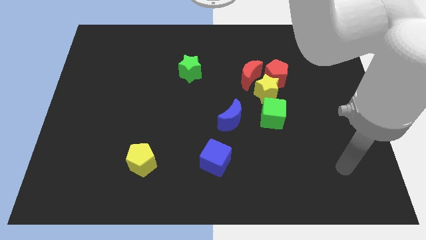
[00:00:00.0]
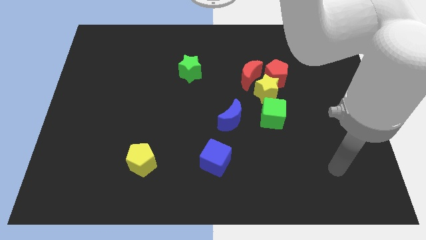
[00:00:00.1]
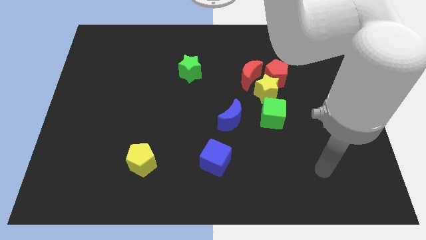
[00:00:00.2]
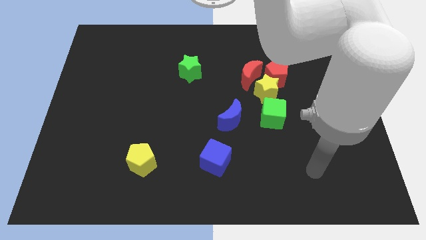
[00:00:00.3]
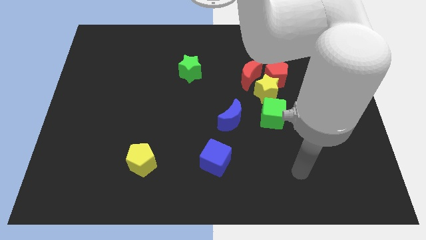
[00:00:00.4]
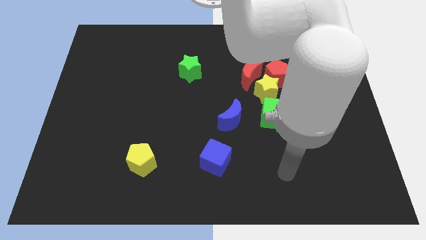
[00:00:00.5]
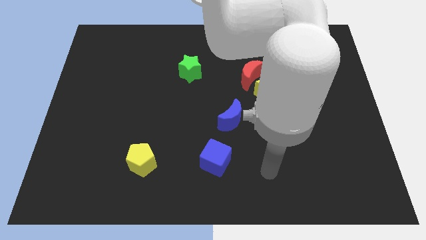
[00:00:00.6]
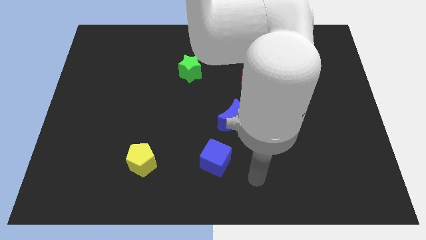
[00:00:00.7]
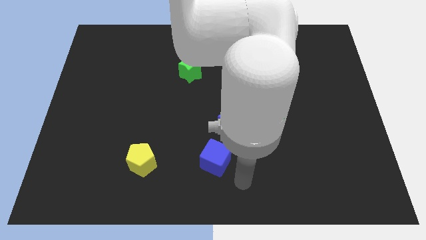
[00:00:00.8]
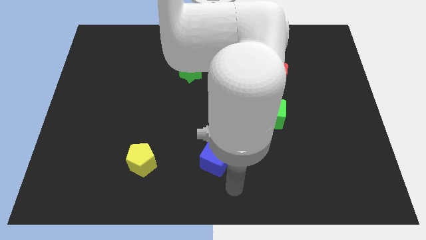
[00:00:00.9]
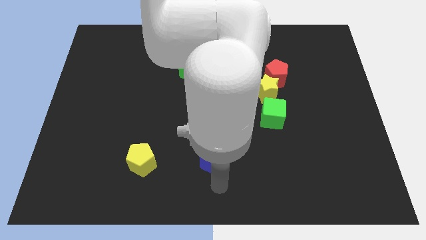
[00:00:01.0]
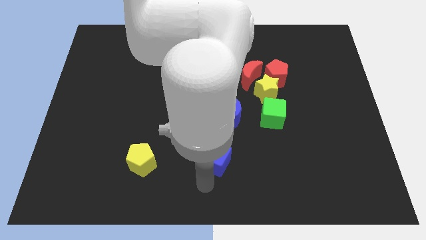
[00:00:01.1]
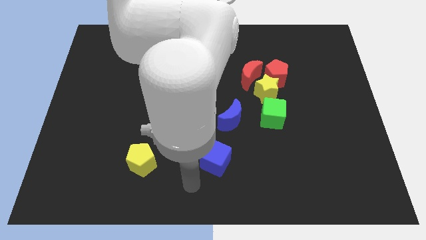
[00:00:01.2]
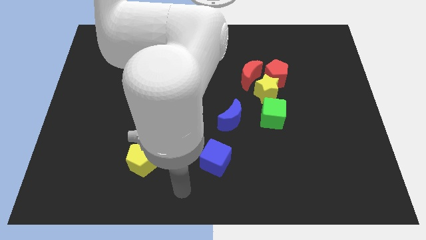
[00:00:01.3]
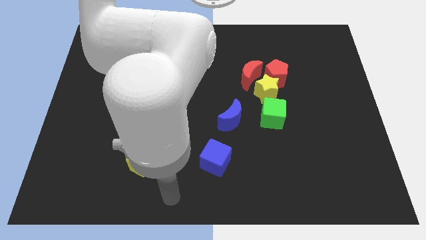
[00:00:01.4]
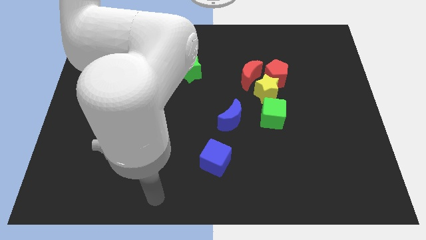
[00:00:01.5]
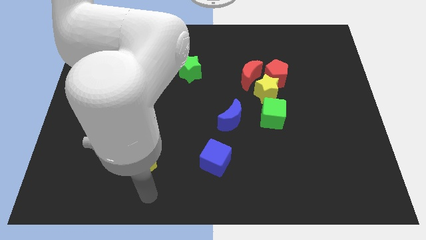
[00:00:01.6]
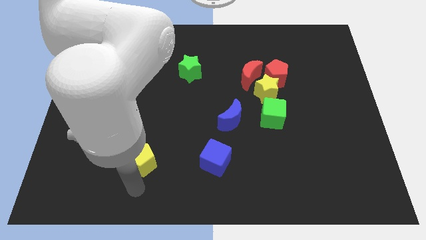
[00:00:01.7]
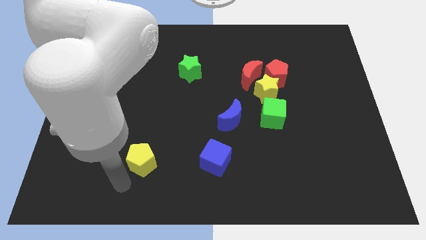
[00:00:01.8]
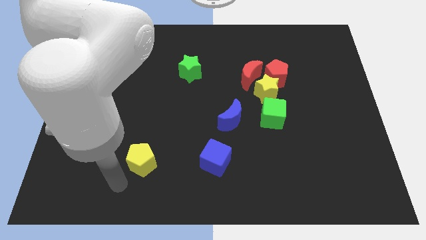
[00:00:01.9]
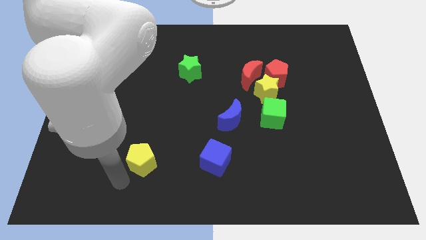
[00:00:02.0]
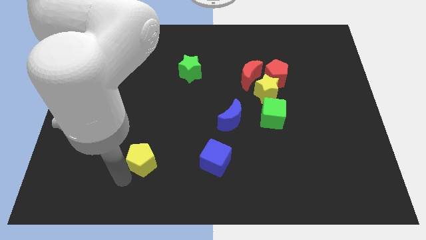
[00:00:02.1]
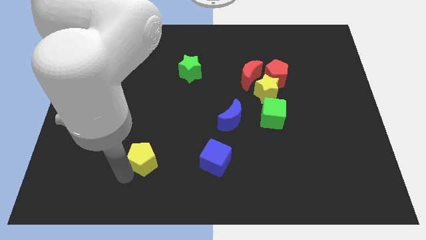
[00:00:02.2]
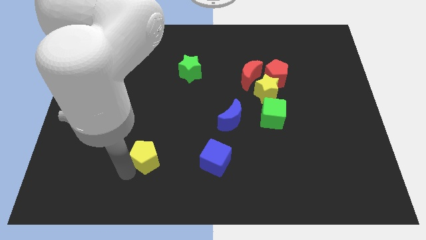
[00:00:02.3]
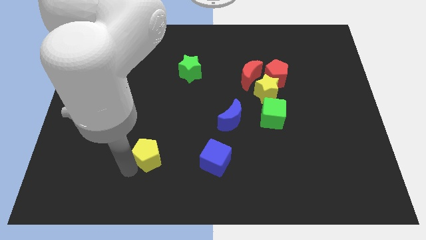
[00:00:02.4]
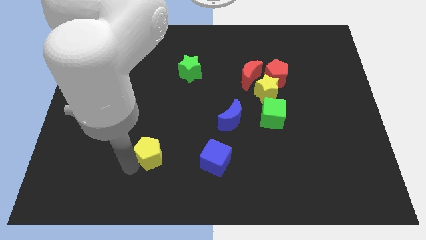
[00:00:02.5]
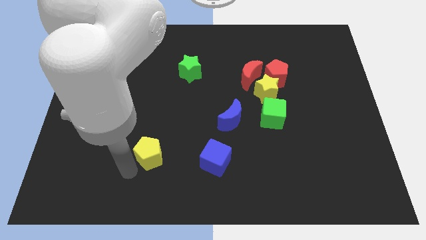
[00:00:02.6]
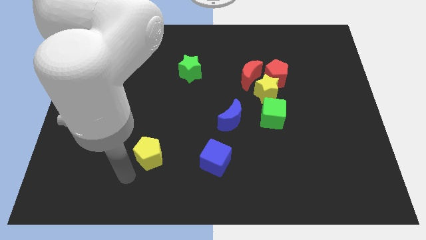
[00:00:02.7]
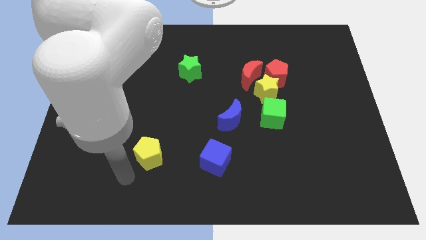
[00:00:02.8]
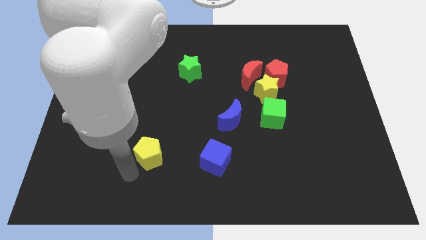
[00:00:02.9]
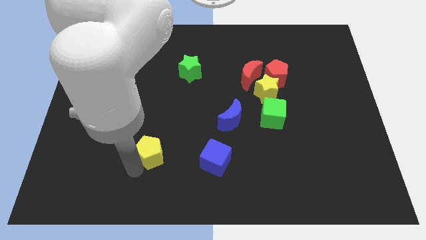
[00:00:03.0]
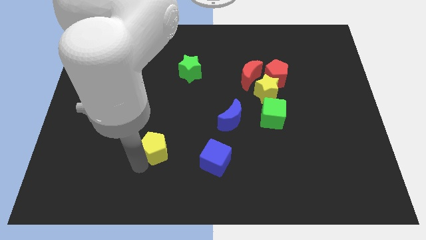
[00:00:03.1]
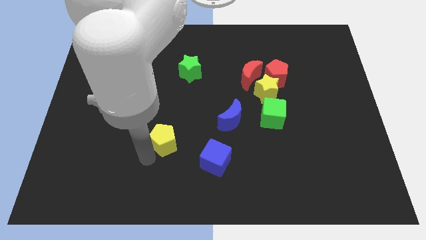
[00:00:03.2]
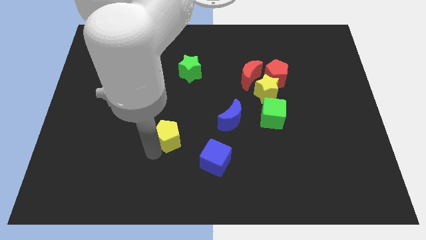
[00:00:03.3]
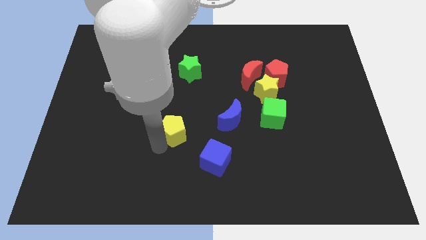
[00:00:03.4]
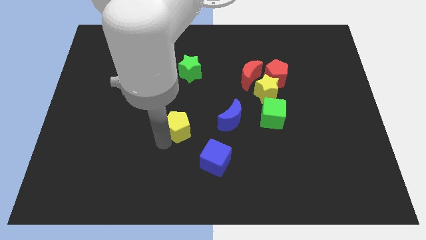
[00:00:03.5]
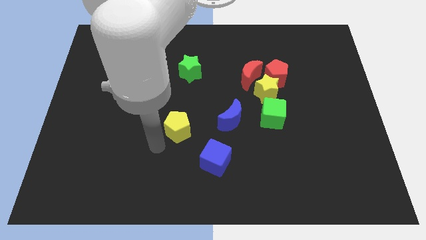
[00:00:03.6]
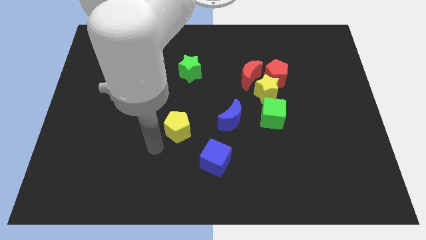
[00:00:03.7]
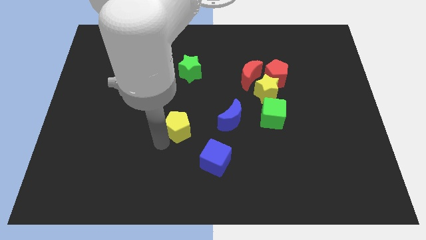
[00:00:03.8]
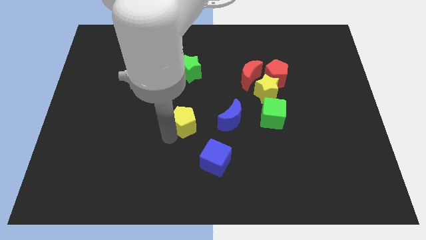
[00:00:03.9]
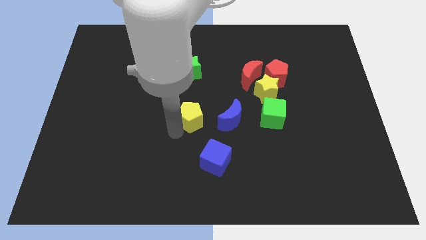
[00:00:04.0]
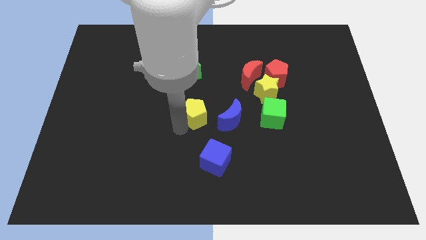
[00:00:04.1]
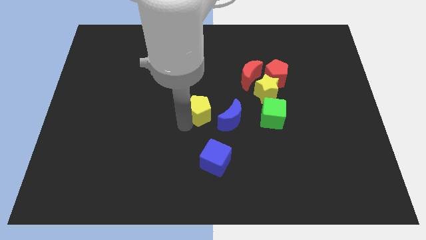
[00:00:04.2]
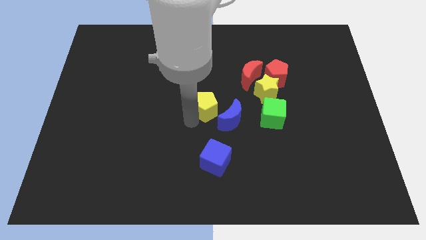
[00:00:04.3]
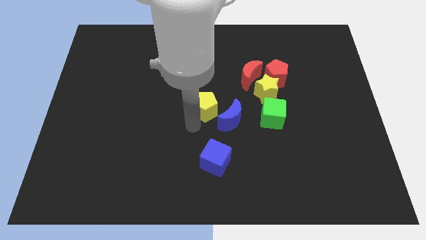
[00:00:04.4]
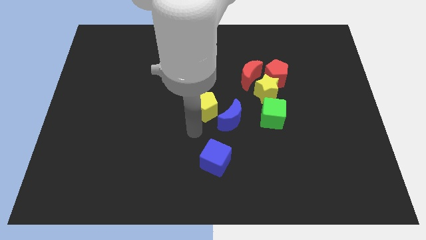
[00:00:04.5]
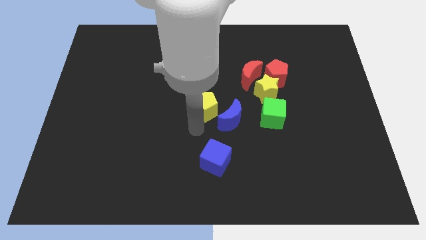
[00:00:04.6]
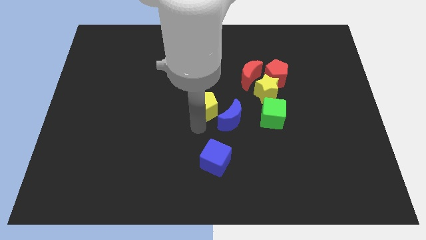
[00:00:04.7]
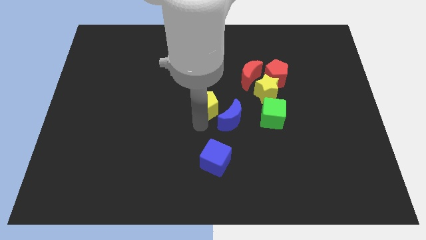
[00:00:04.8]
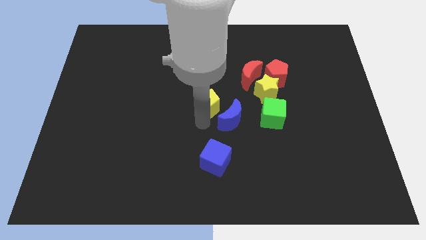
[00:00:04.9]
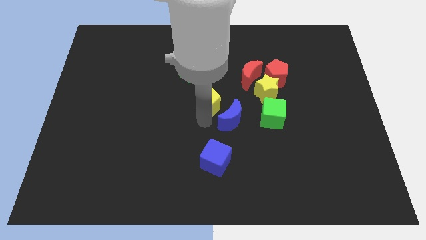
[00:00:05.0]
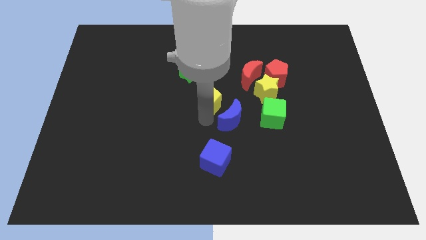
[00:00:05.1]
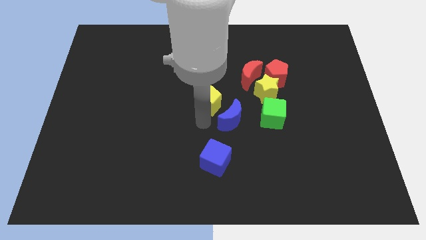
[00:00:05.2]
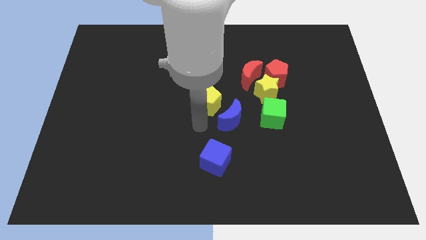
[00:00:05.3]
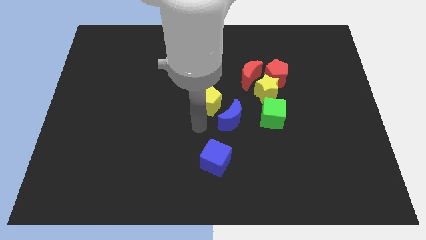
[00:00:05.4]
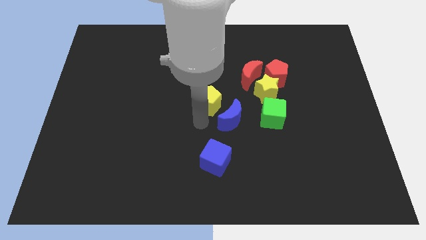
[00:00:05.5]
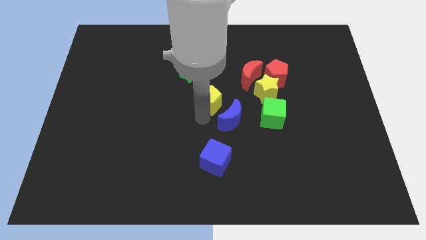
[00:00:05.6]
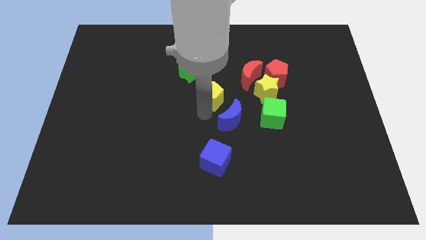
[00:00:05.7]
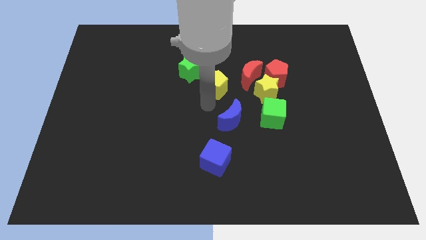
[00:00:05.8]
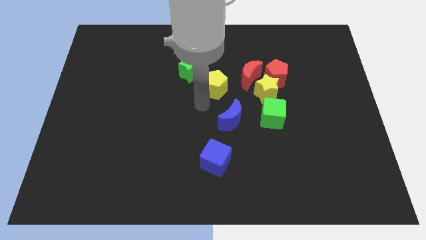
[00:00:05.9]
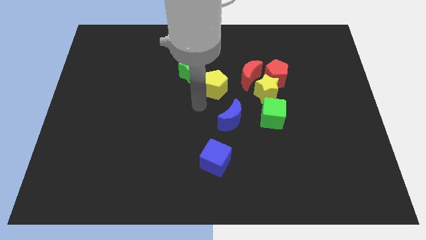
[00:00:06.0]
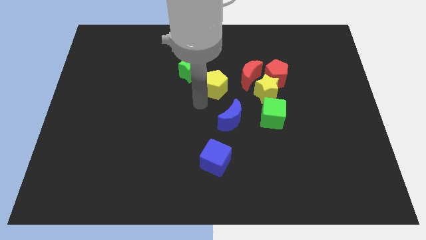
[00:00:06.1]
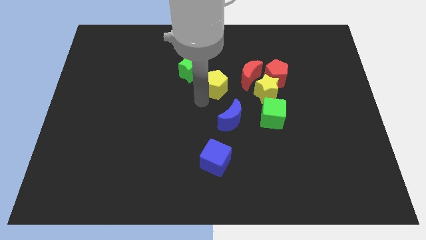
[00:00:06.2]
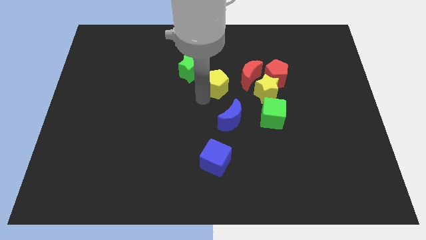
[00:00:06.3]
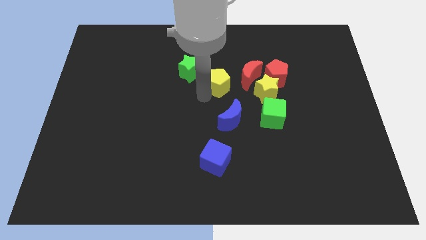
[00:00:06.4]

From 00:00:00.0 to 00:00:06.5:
slide the yellow pentagon just right of the green star

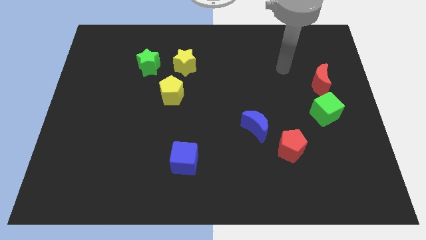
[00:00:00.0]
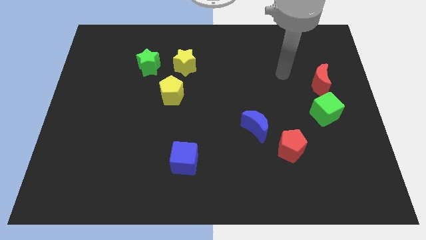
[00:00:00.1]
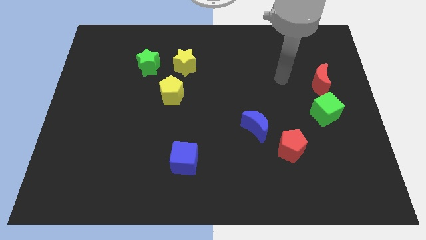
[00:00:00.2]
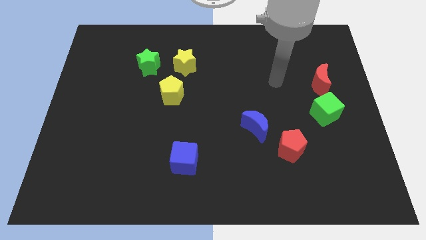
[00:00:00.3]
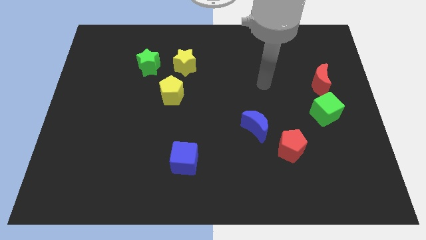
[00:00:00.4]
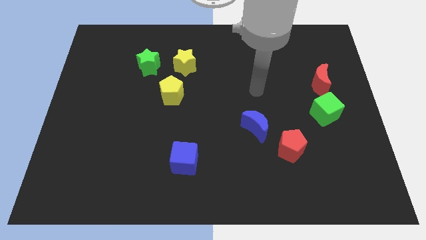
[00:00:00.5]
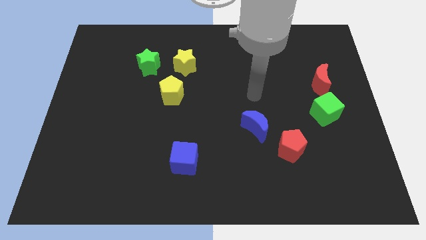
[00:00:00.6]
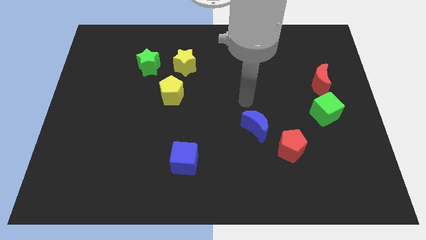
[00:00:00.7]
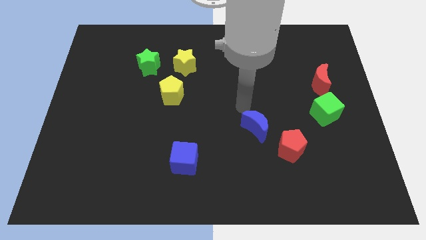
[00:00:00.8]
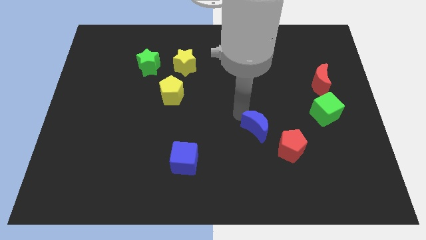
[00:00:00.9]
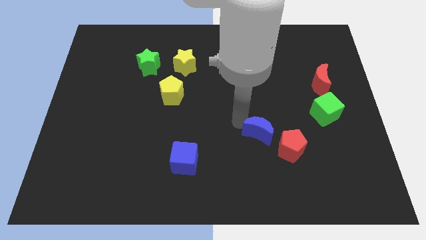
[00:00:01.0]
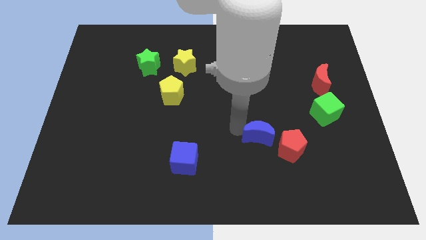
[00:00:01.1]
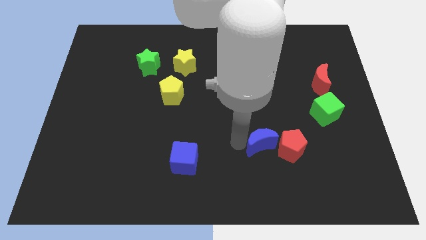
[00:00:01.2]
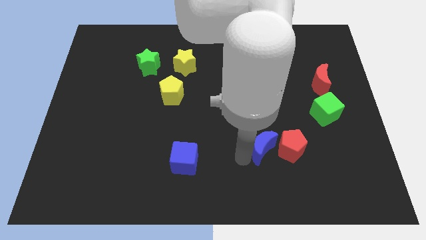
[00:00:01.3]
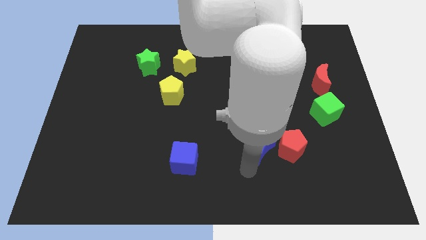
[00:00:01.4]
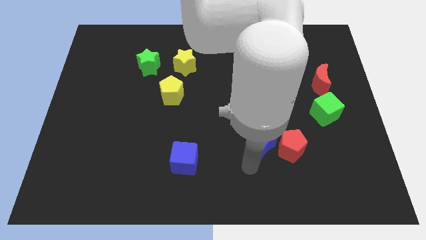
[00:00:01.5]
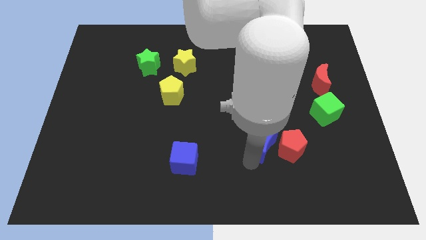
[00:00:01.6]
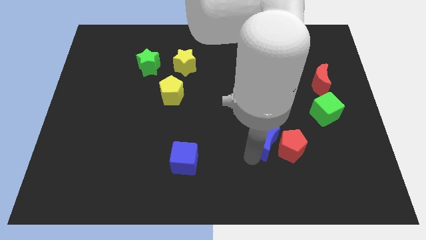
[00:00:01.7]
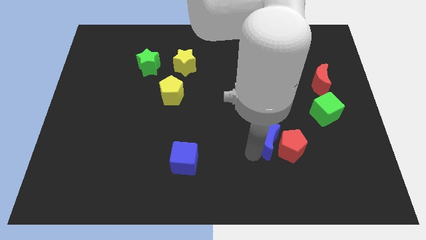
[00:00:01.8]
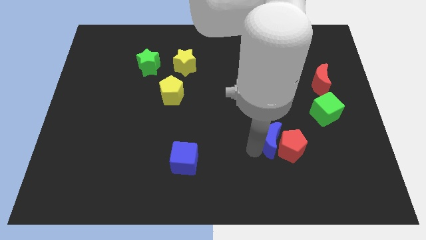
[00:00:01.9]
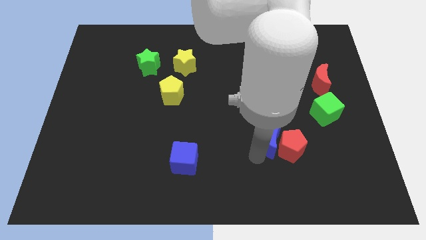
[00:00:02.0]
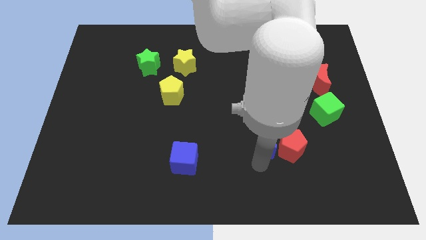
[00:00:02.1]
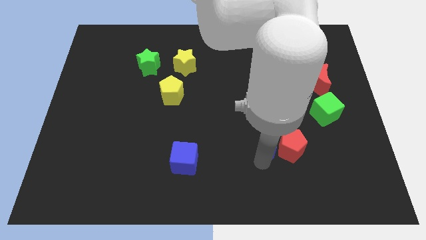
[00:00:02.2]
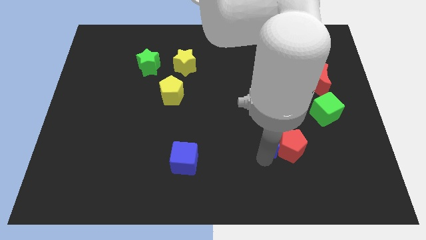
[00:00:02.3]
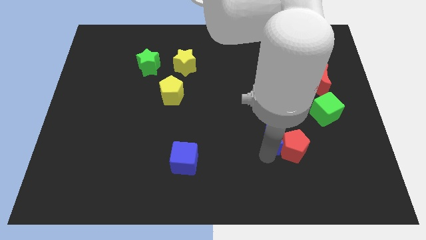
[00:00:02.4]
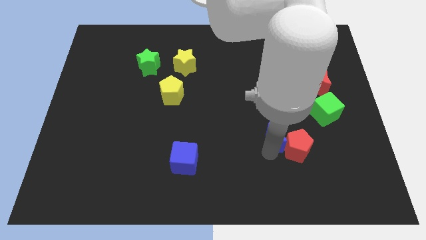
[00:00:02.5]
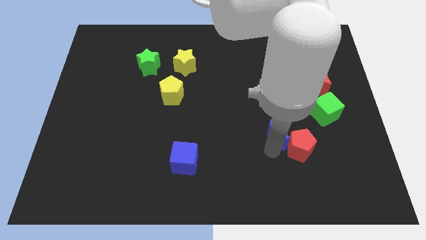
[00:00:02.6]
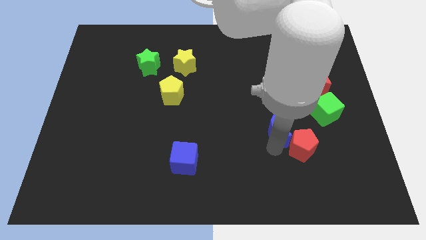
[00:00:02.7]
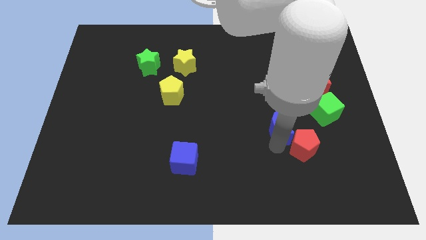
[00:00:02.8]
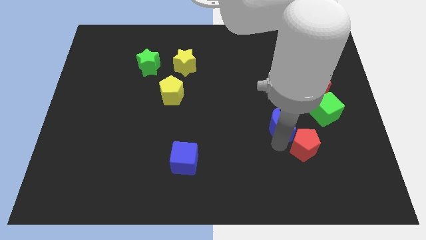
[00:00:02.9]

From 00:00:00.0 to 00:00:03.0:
move the blue moon just left of the green cube
